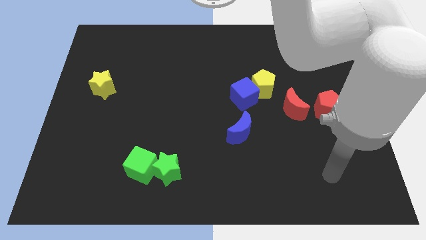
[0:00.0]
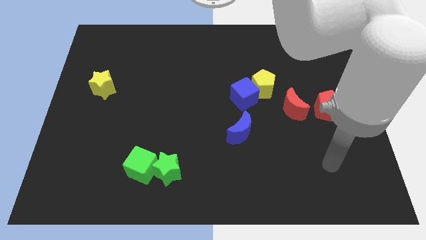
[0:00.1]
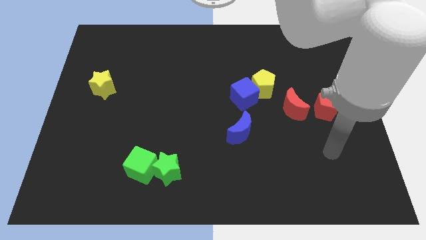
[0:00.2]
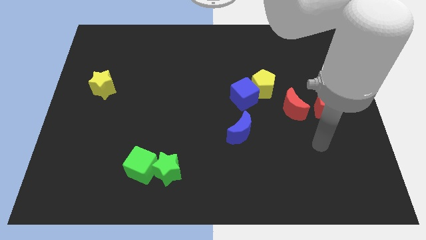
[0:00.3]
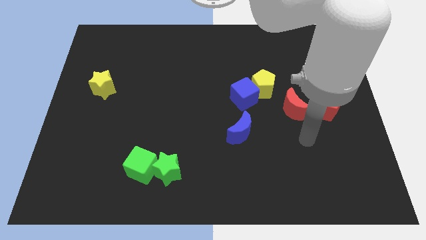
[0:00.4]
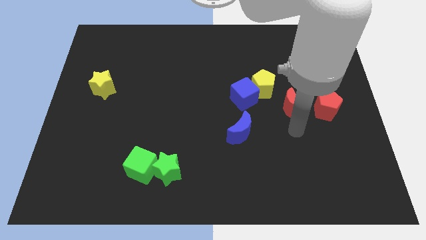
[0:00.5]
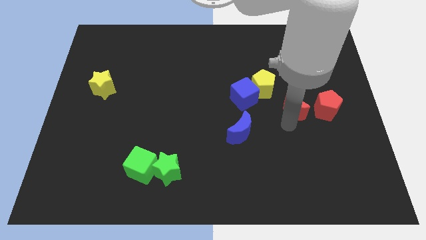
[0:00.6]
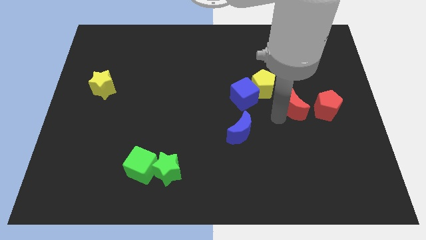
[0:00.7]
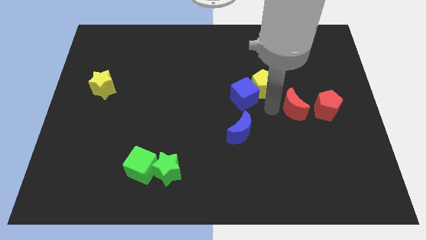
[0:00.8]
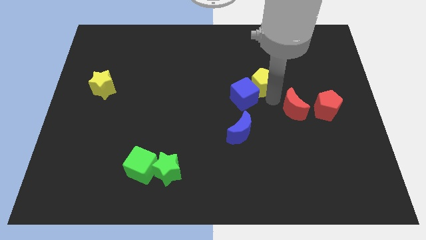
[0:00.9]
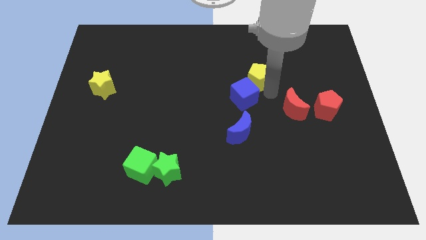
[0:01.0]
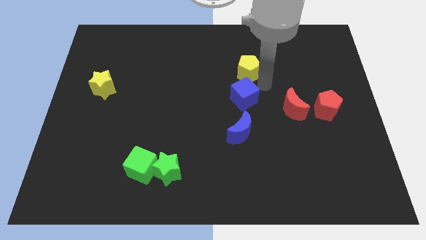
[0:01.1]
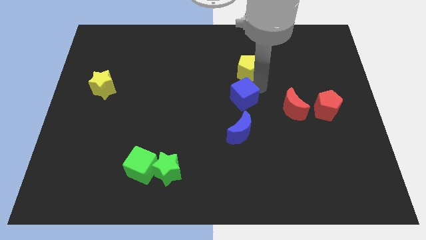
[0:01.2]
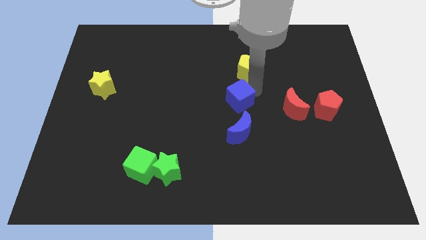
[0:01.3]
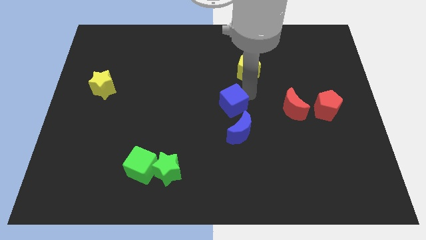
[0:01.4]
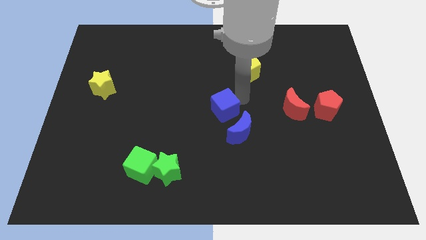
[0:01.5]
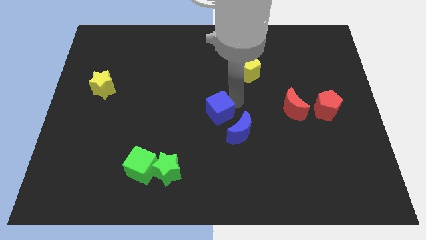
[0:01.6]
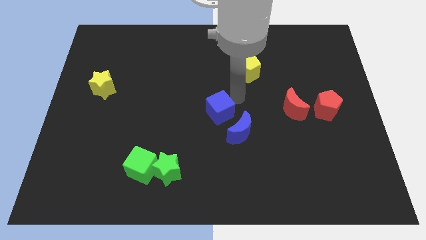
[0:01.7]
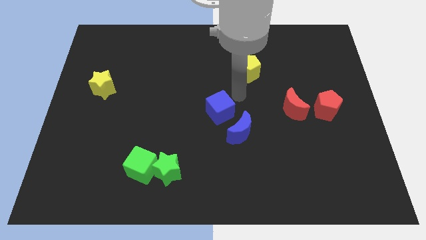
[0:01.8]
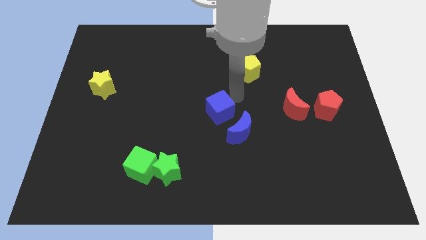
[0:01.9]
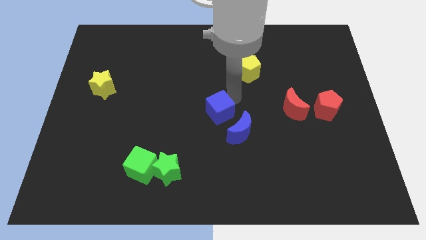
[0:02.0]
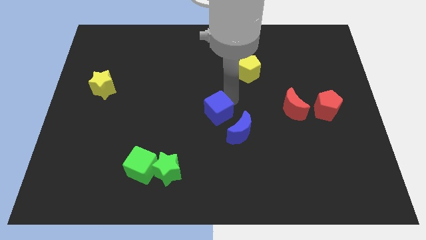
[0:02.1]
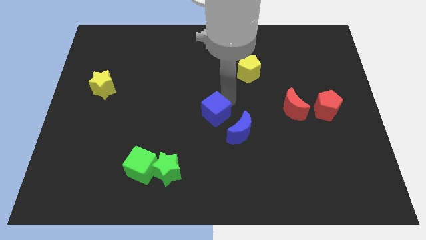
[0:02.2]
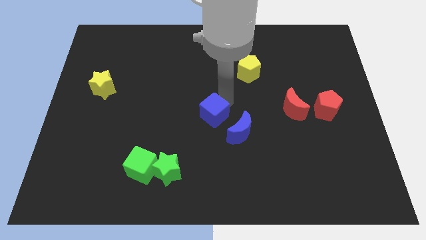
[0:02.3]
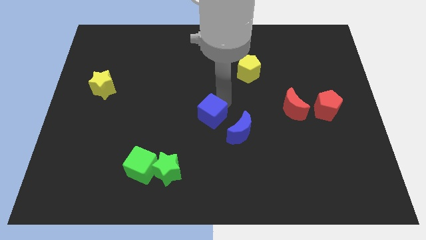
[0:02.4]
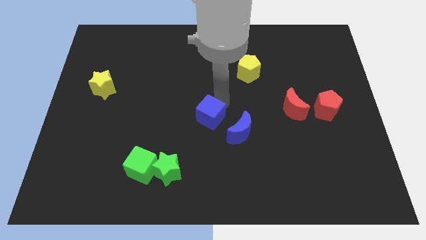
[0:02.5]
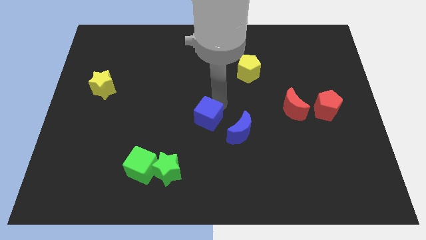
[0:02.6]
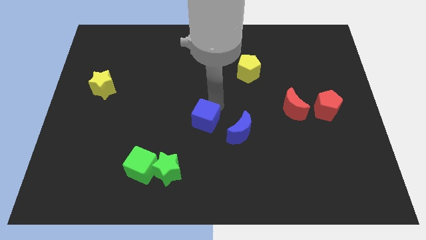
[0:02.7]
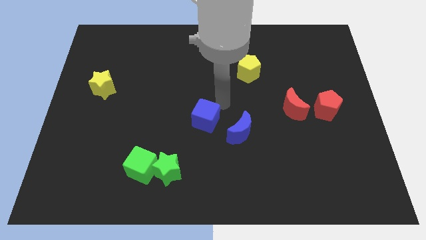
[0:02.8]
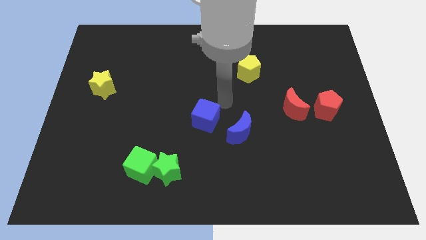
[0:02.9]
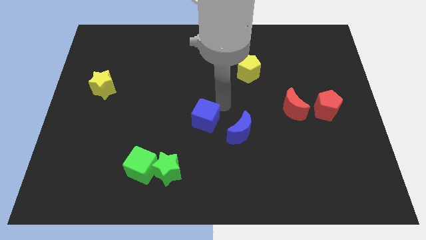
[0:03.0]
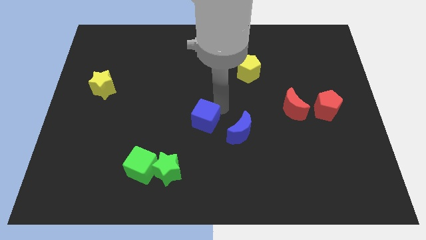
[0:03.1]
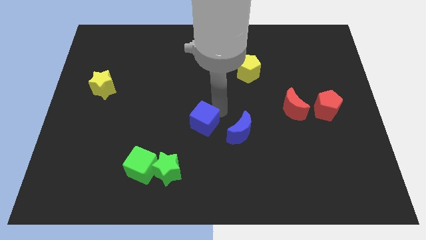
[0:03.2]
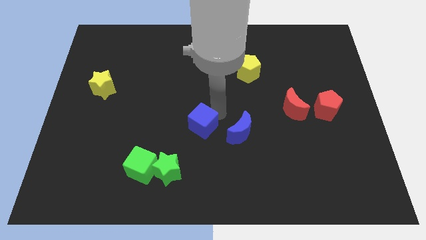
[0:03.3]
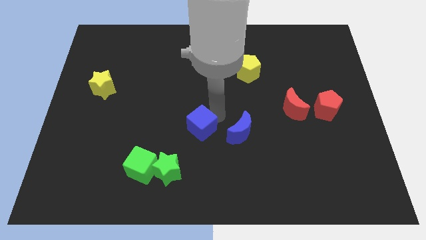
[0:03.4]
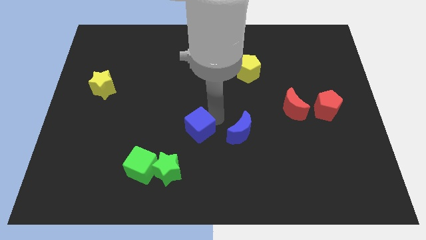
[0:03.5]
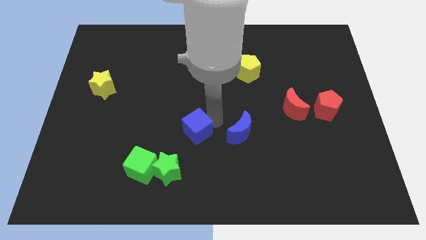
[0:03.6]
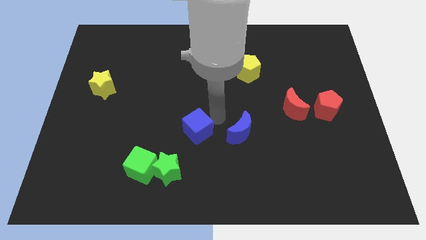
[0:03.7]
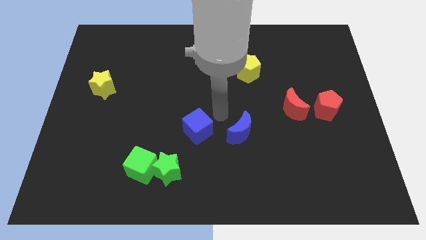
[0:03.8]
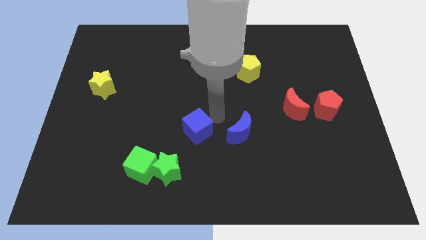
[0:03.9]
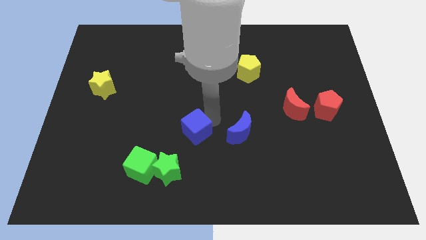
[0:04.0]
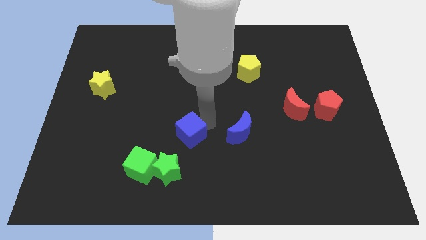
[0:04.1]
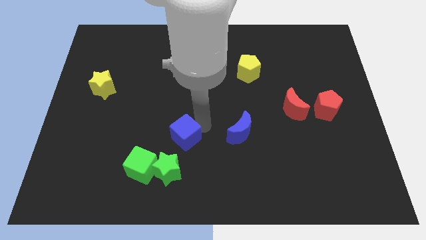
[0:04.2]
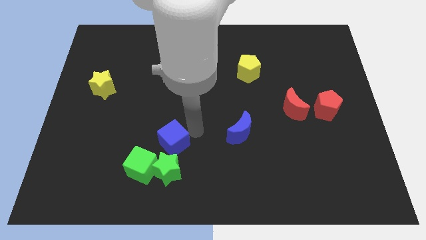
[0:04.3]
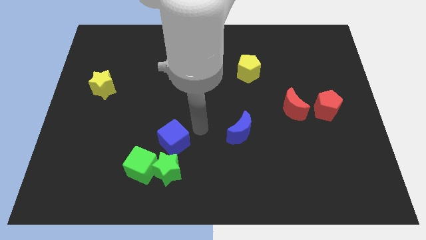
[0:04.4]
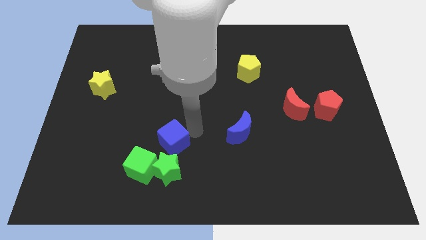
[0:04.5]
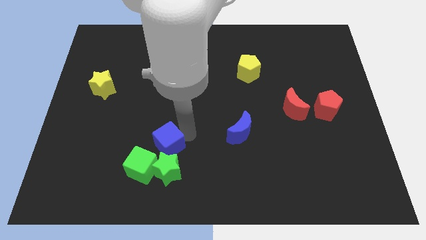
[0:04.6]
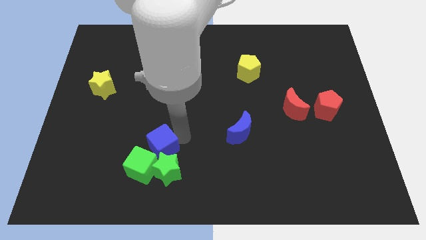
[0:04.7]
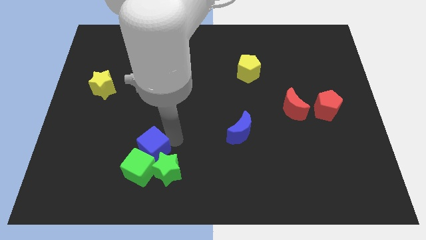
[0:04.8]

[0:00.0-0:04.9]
move the blue cube to the green cube

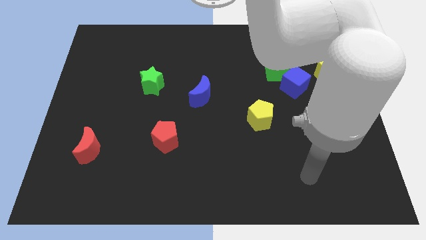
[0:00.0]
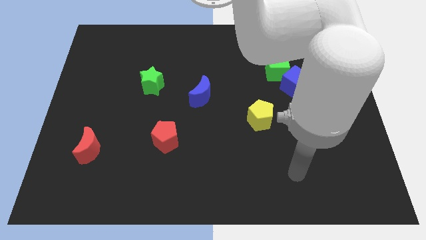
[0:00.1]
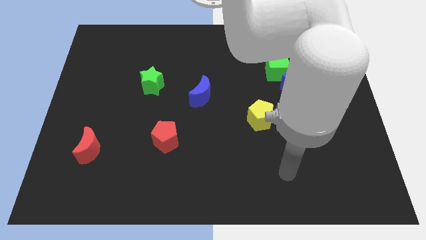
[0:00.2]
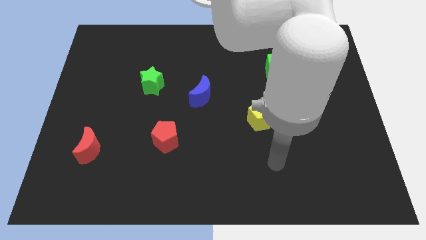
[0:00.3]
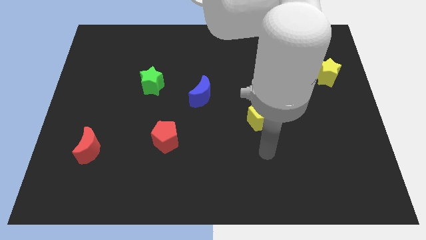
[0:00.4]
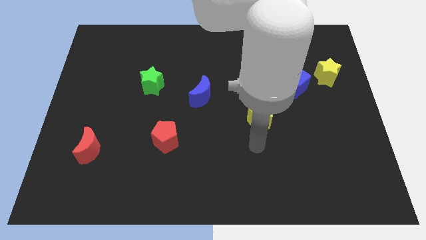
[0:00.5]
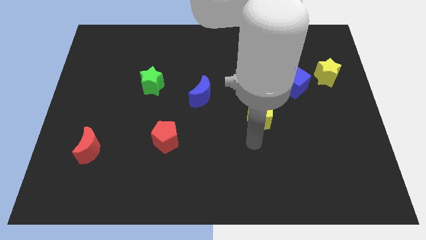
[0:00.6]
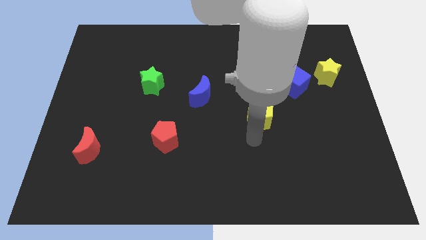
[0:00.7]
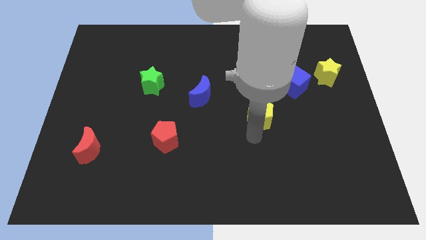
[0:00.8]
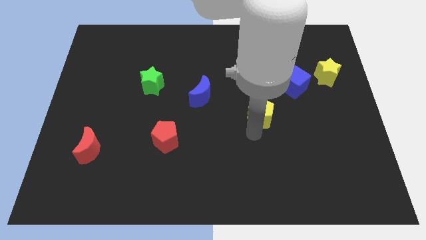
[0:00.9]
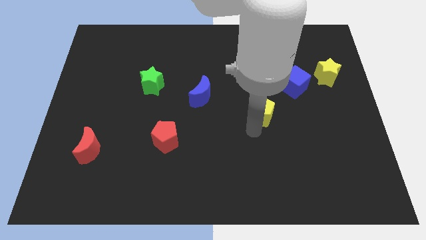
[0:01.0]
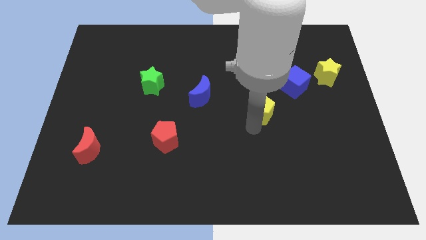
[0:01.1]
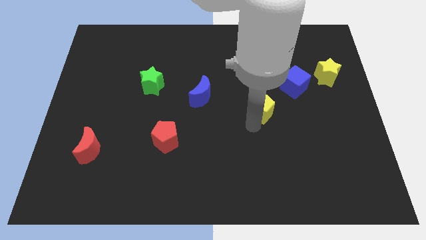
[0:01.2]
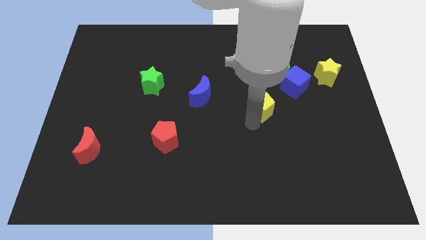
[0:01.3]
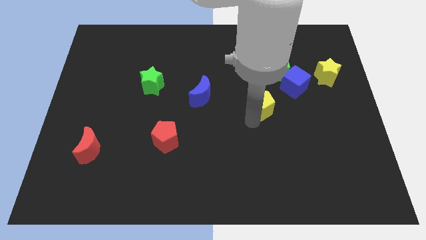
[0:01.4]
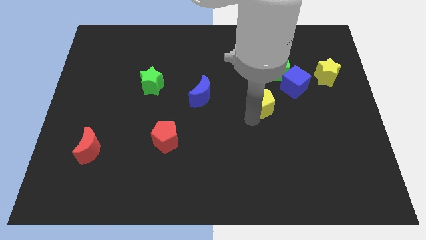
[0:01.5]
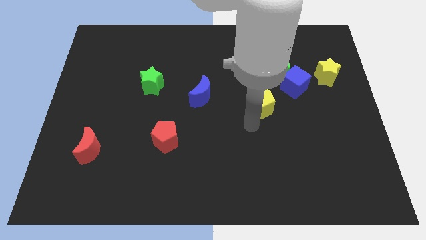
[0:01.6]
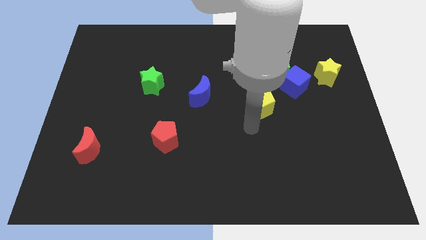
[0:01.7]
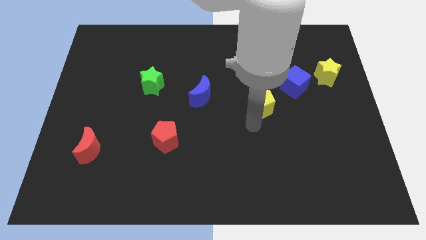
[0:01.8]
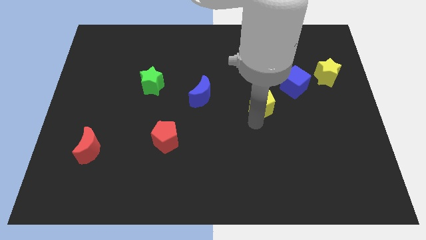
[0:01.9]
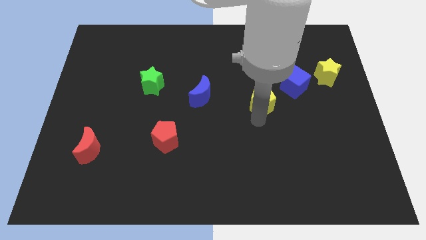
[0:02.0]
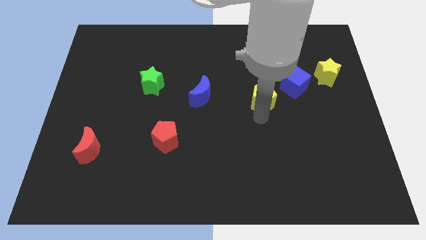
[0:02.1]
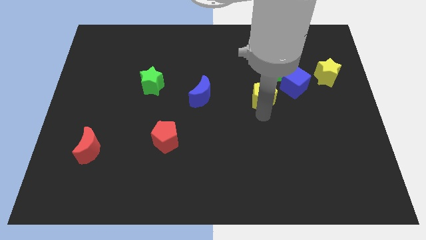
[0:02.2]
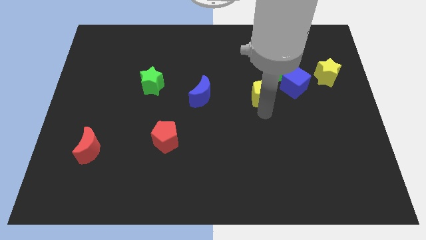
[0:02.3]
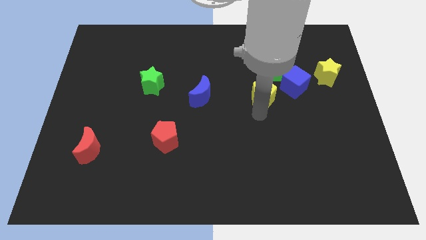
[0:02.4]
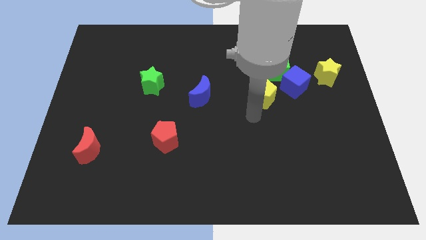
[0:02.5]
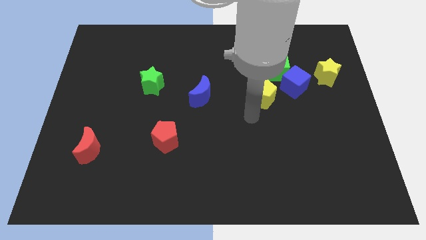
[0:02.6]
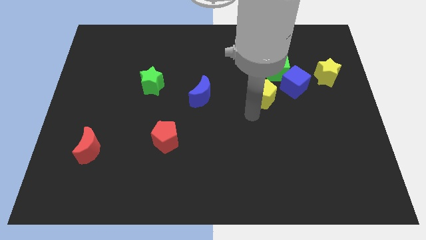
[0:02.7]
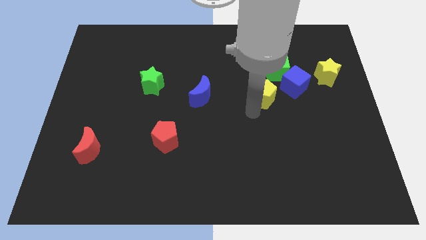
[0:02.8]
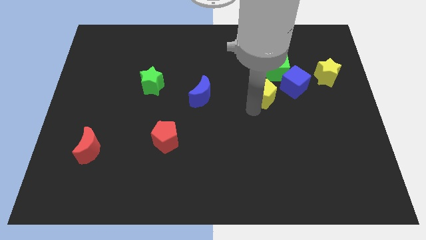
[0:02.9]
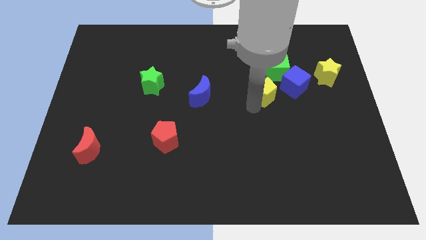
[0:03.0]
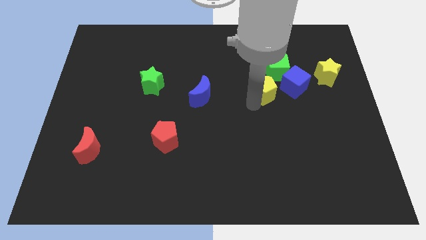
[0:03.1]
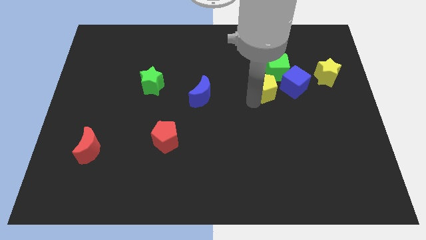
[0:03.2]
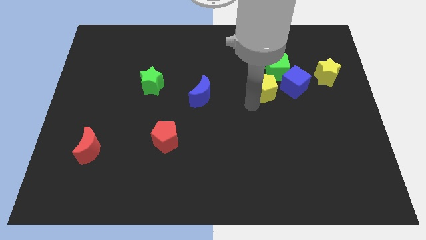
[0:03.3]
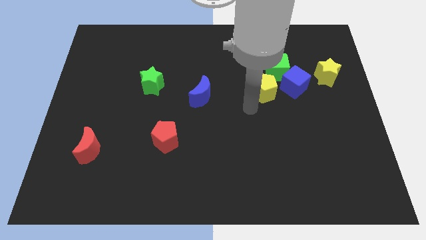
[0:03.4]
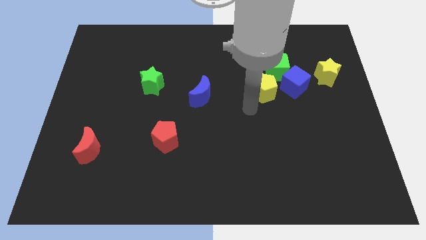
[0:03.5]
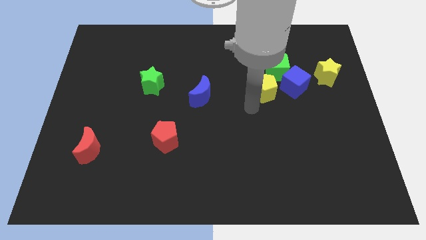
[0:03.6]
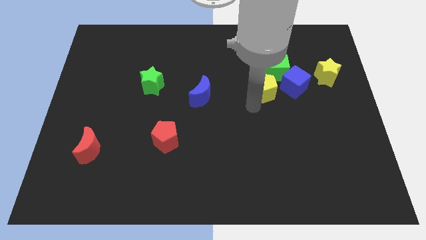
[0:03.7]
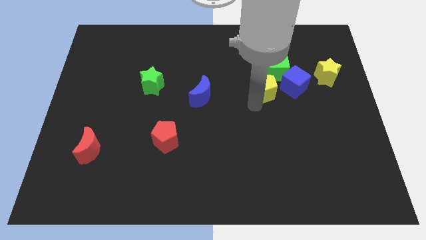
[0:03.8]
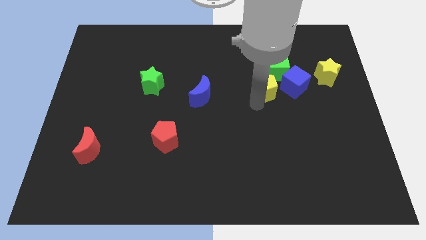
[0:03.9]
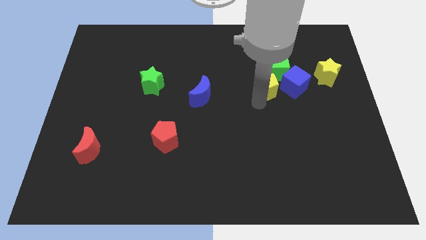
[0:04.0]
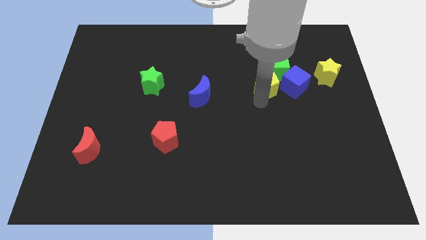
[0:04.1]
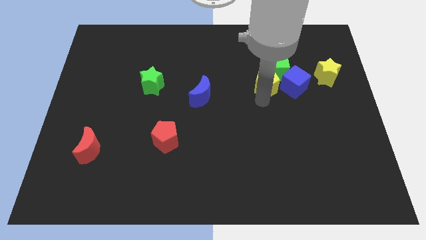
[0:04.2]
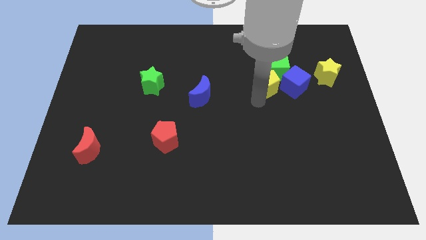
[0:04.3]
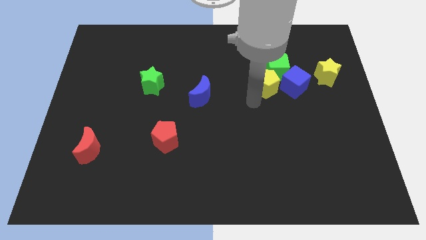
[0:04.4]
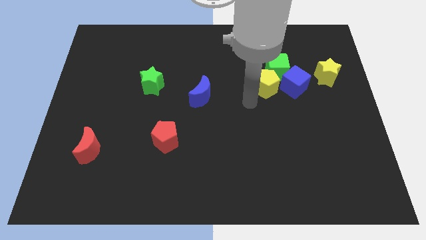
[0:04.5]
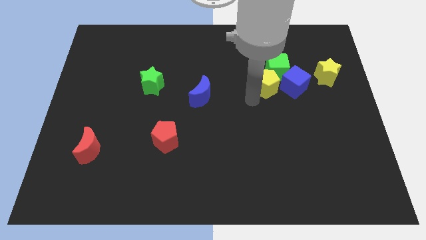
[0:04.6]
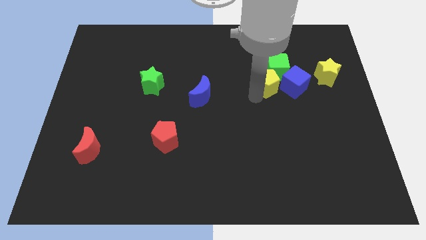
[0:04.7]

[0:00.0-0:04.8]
put the yellow pentagon close to the green cube
